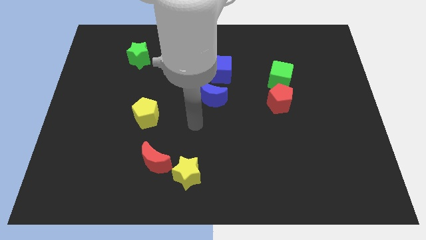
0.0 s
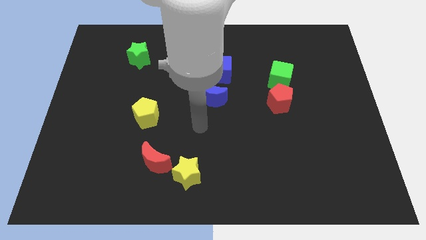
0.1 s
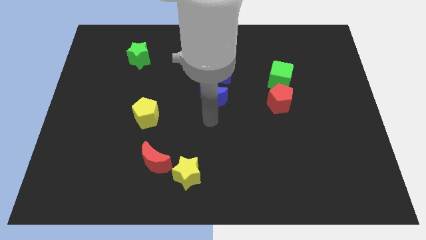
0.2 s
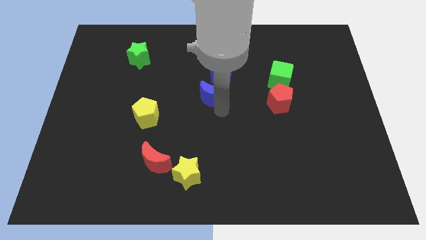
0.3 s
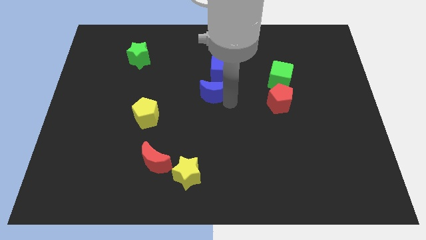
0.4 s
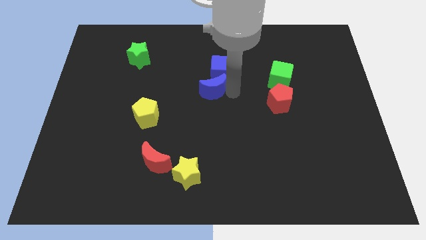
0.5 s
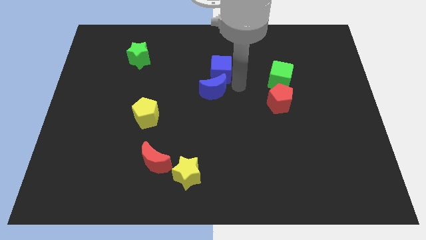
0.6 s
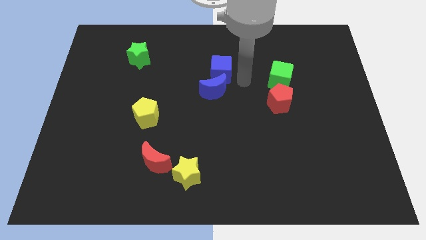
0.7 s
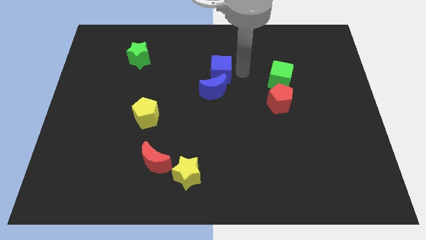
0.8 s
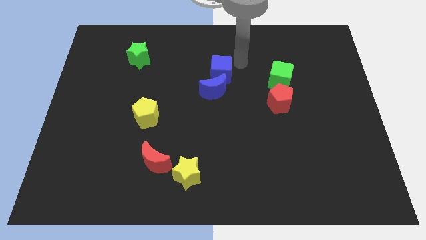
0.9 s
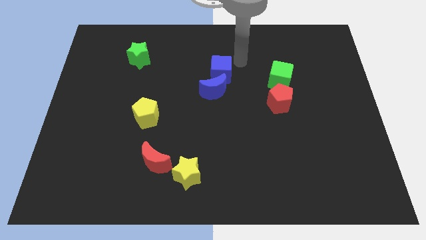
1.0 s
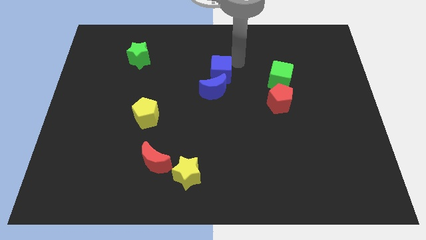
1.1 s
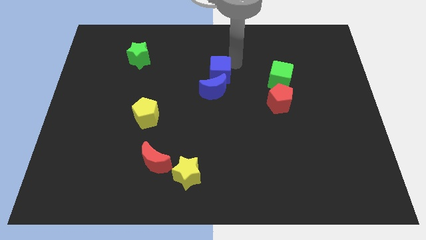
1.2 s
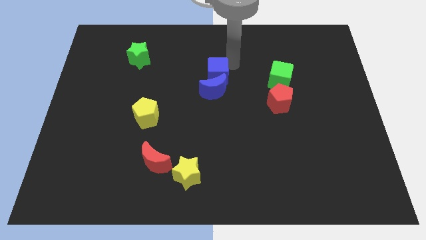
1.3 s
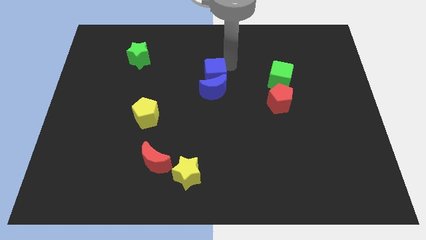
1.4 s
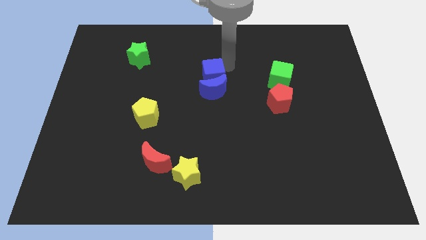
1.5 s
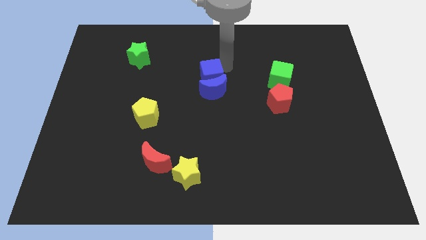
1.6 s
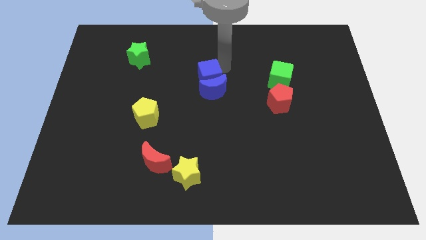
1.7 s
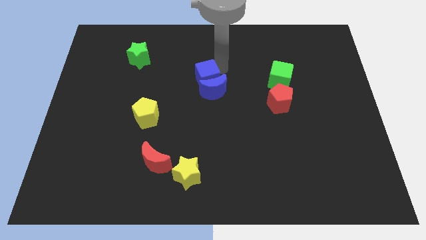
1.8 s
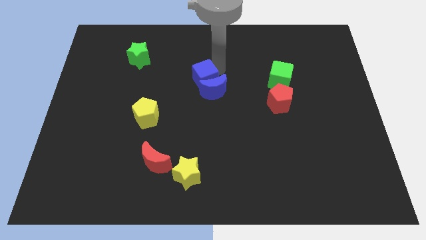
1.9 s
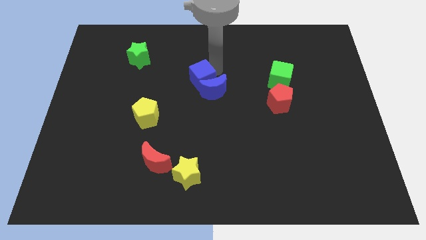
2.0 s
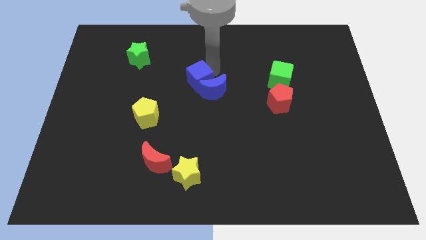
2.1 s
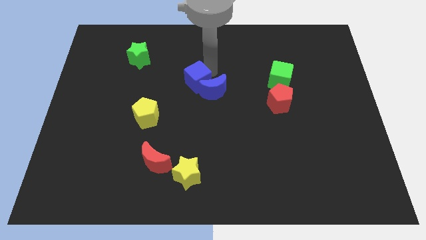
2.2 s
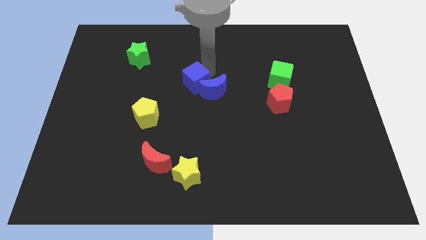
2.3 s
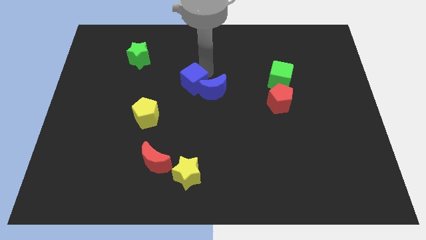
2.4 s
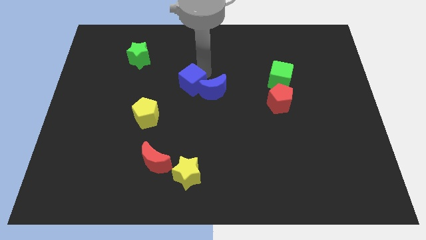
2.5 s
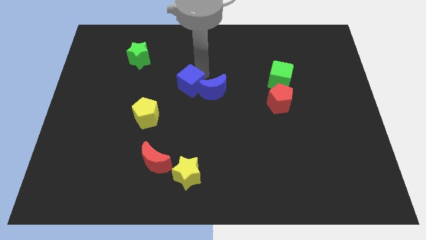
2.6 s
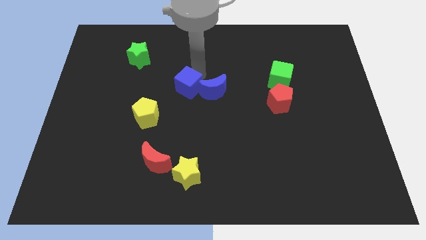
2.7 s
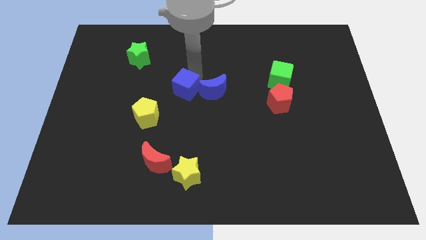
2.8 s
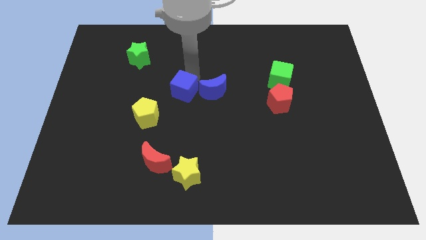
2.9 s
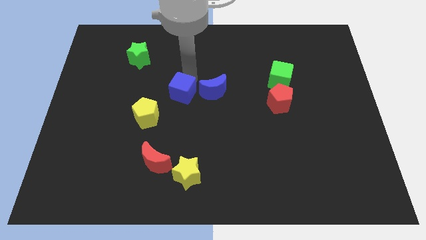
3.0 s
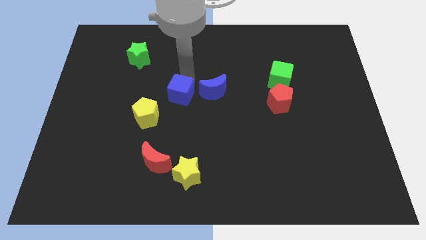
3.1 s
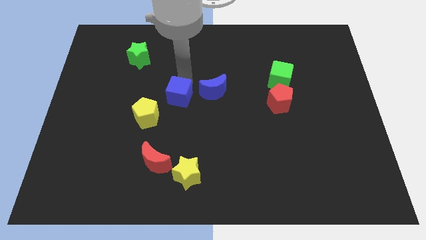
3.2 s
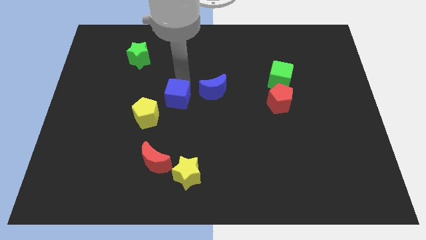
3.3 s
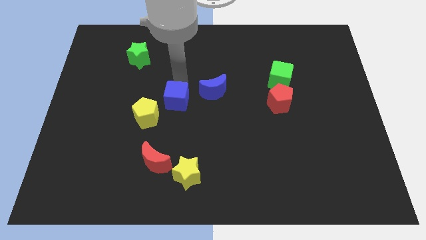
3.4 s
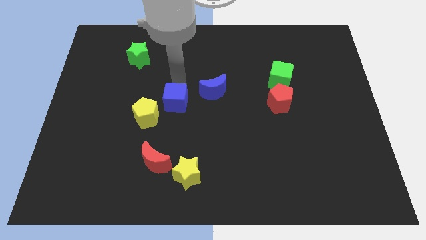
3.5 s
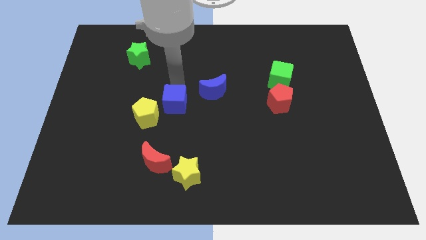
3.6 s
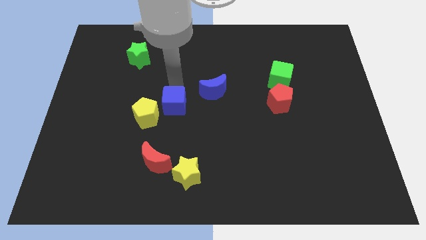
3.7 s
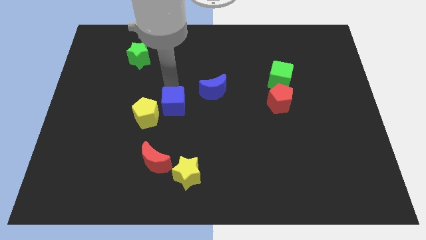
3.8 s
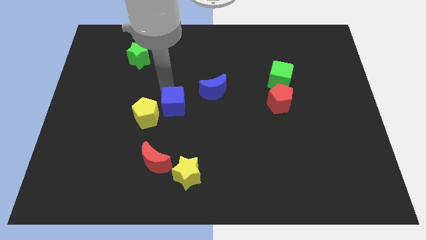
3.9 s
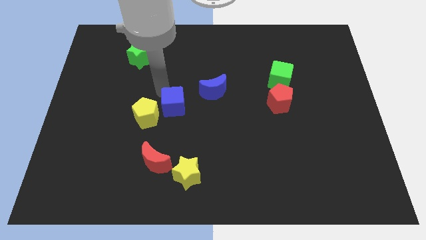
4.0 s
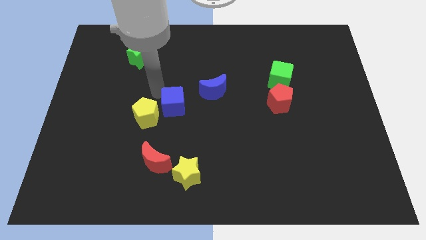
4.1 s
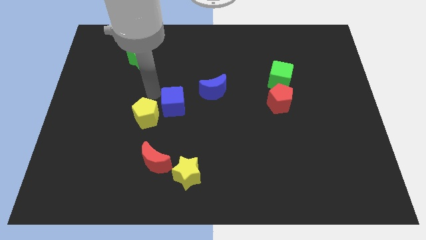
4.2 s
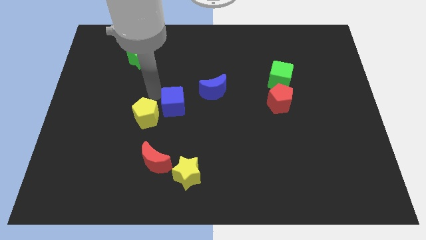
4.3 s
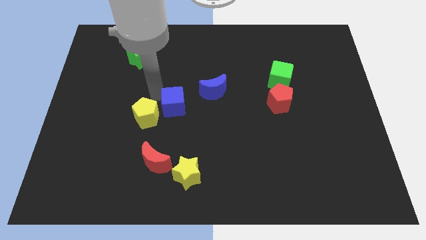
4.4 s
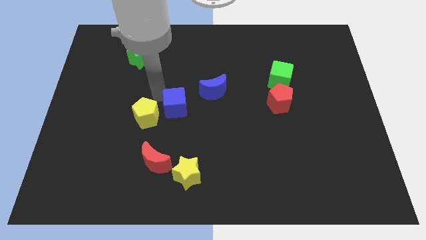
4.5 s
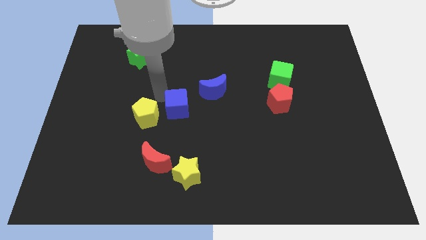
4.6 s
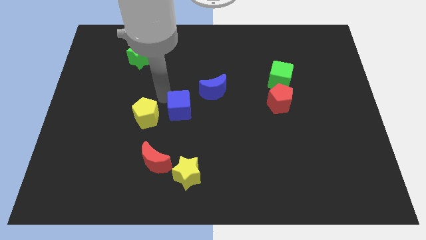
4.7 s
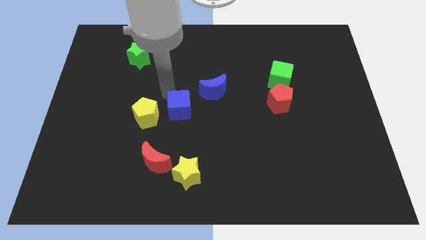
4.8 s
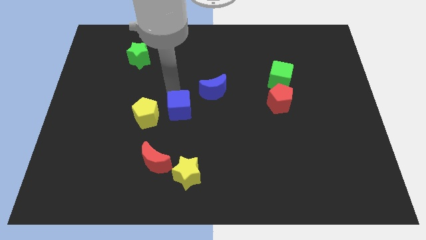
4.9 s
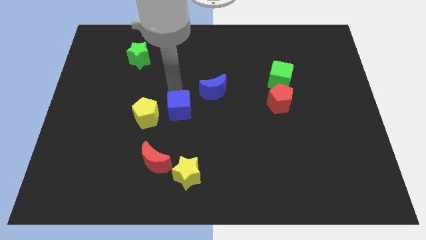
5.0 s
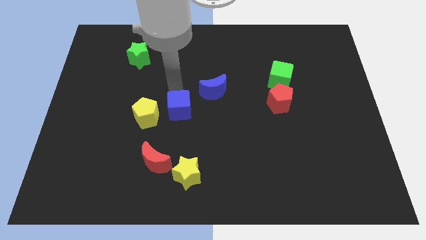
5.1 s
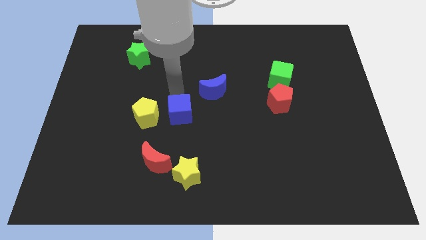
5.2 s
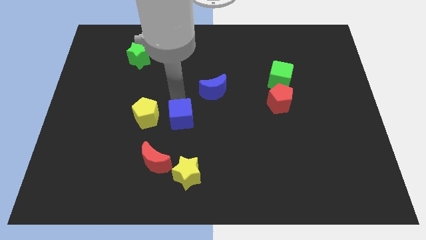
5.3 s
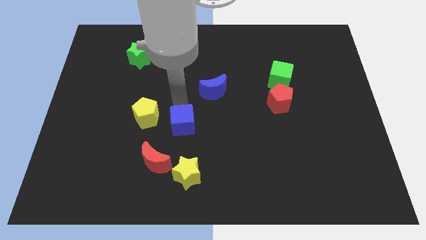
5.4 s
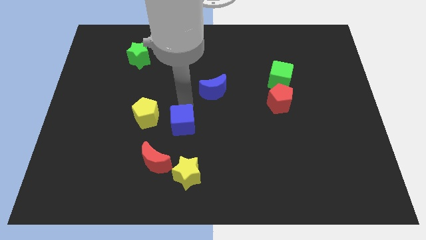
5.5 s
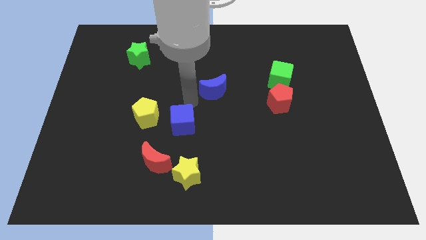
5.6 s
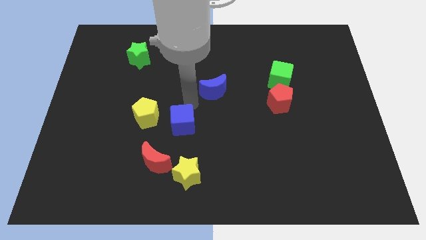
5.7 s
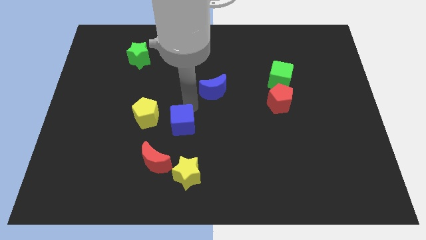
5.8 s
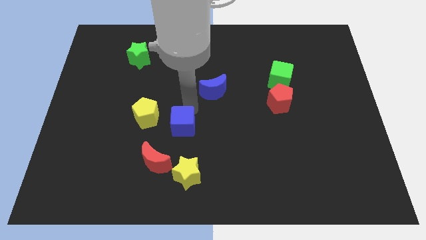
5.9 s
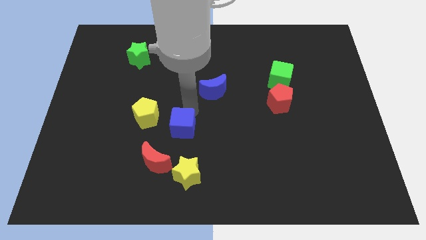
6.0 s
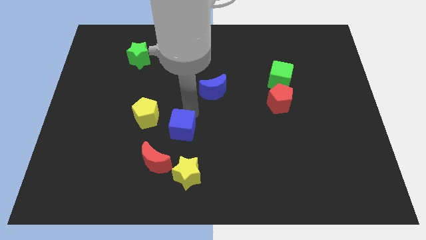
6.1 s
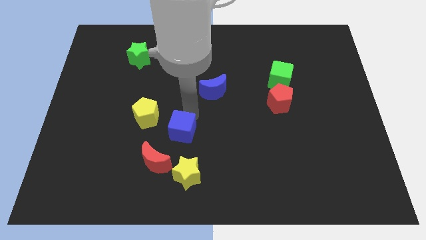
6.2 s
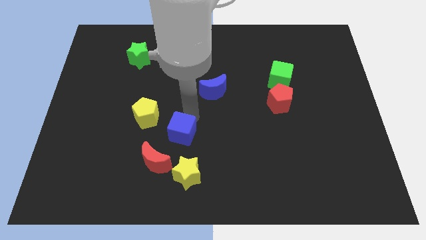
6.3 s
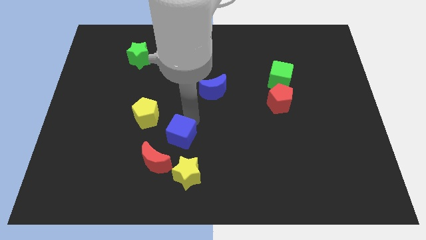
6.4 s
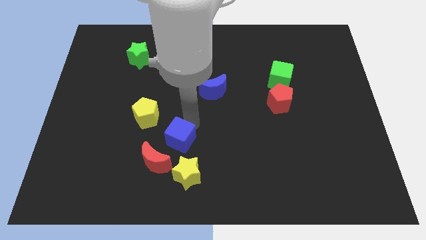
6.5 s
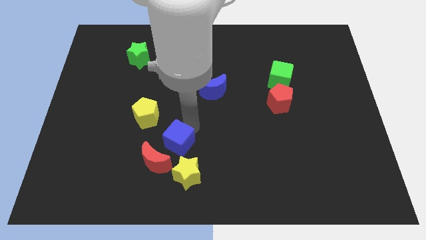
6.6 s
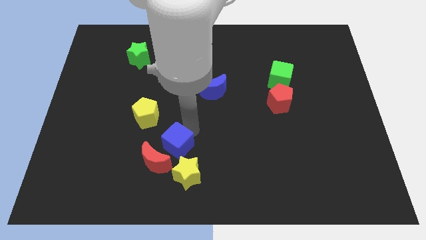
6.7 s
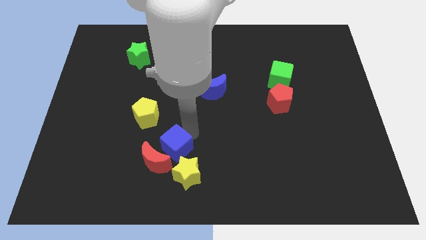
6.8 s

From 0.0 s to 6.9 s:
slide the blue cube next to the red moon

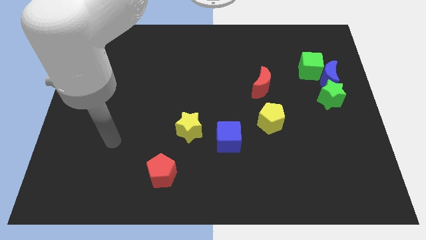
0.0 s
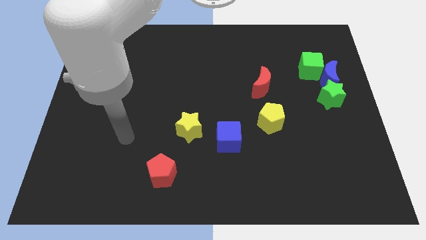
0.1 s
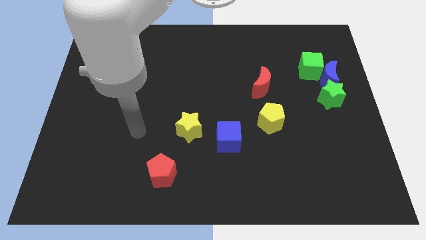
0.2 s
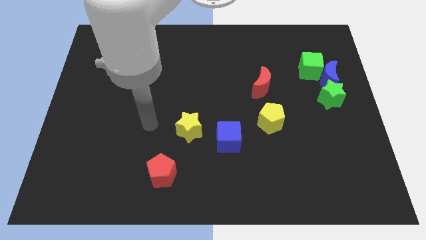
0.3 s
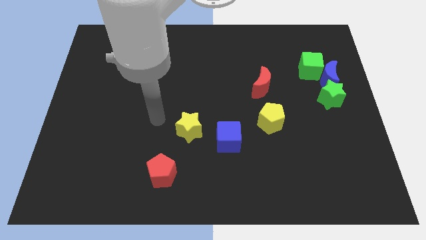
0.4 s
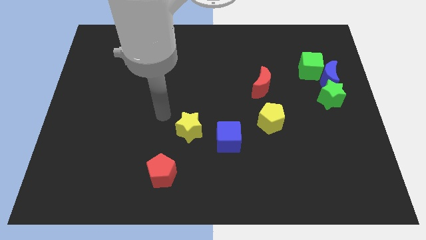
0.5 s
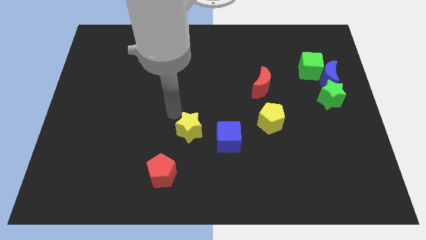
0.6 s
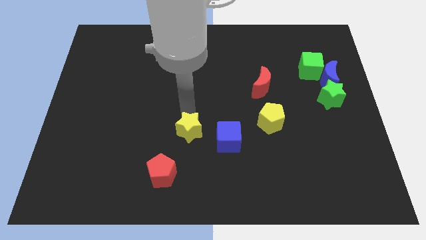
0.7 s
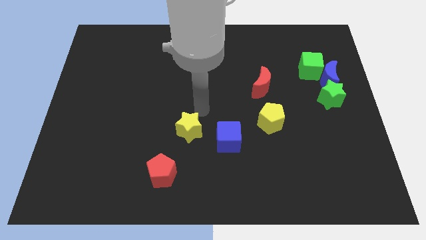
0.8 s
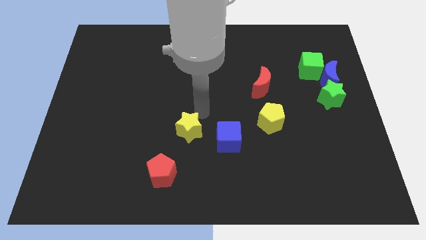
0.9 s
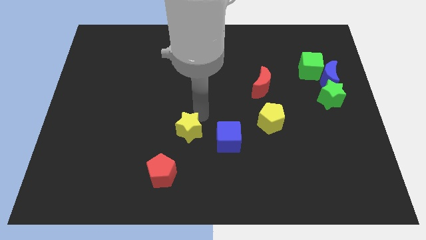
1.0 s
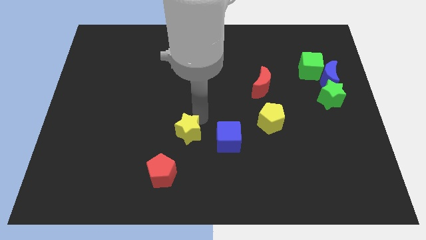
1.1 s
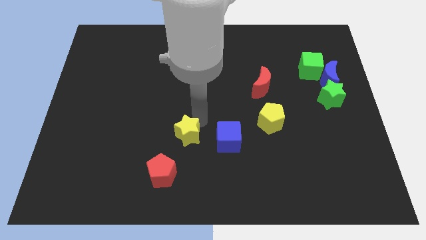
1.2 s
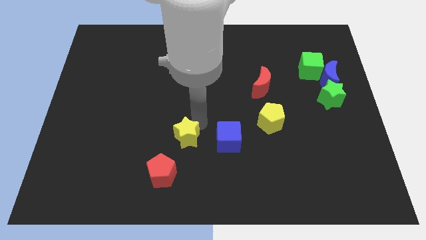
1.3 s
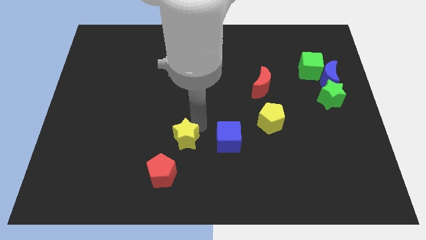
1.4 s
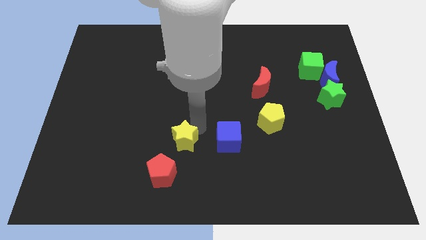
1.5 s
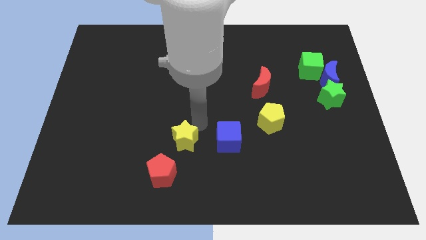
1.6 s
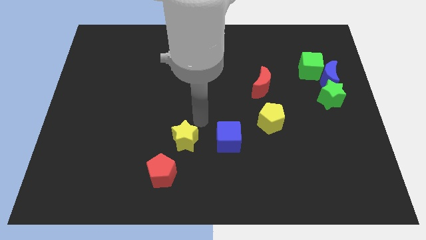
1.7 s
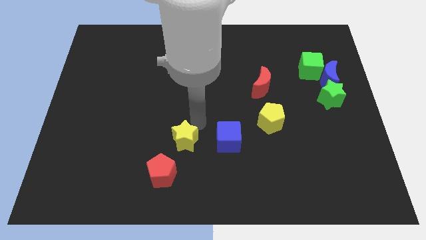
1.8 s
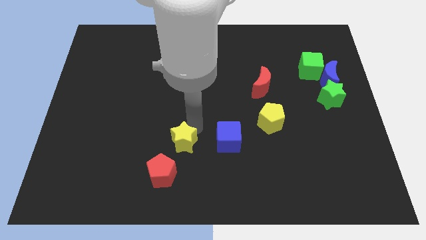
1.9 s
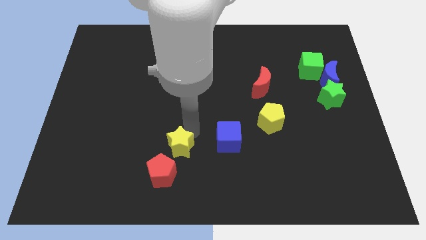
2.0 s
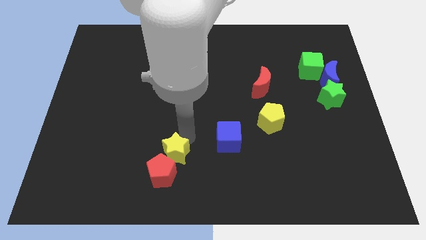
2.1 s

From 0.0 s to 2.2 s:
push the yellow star towards the red pentagon
